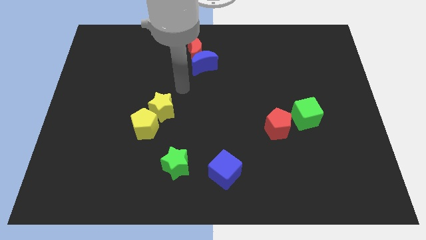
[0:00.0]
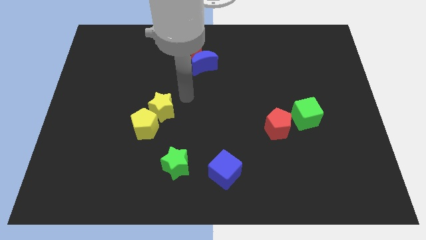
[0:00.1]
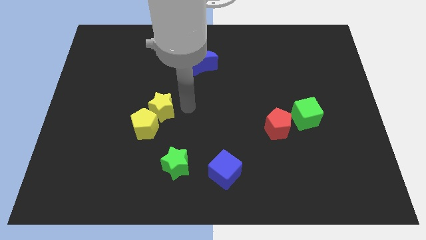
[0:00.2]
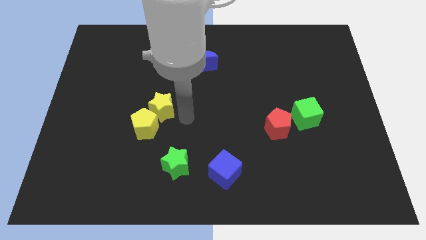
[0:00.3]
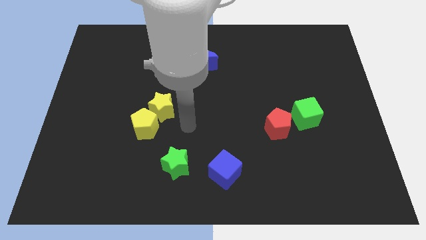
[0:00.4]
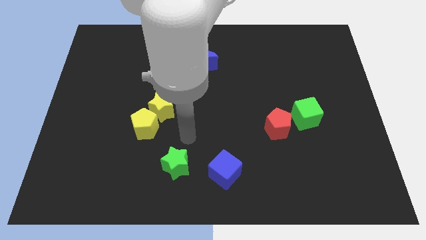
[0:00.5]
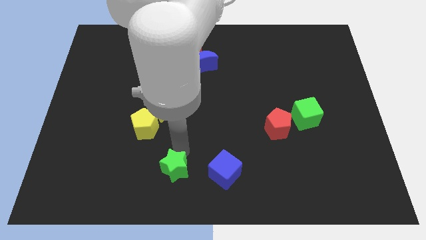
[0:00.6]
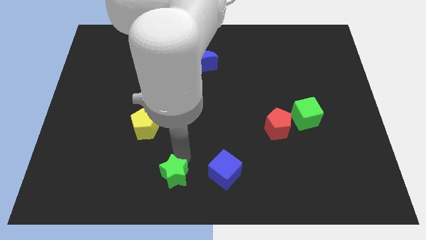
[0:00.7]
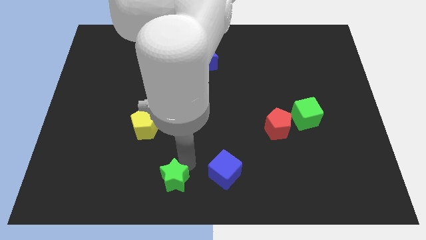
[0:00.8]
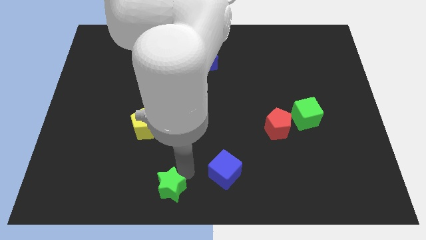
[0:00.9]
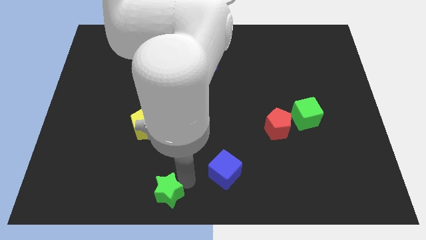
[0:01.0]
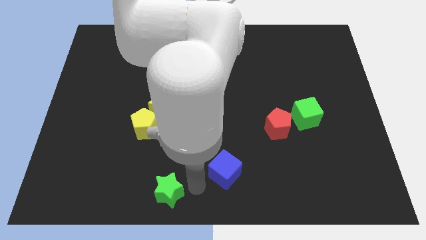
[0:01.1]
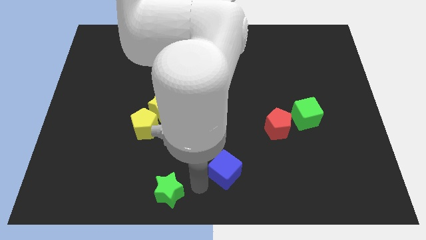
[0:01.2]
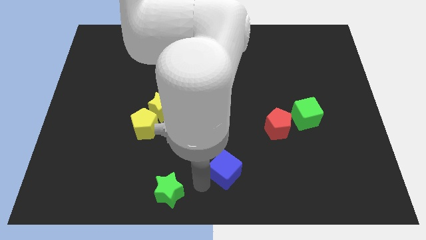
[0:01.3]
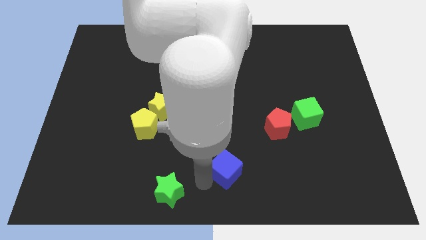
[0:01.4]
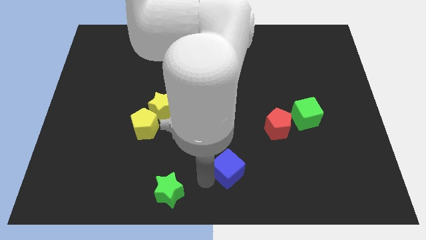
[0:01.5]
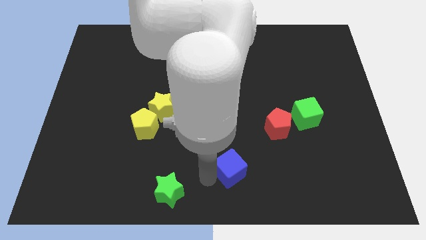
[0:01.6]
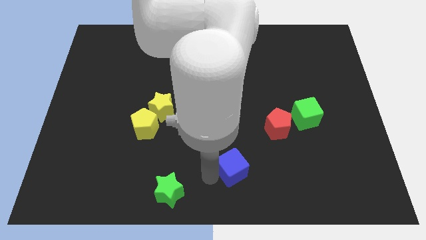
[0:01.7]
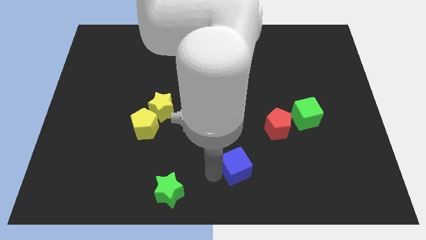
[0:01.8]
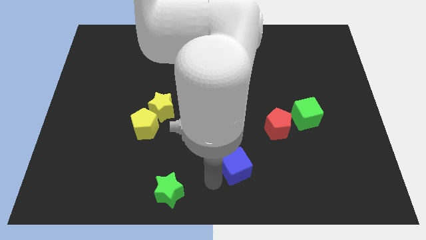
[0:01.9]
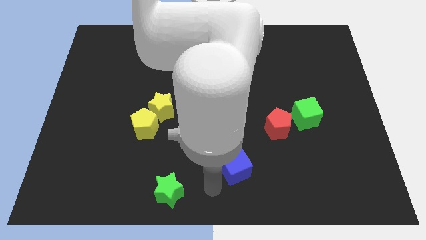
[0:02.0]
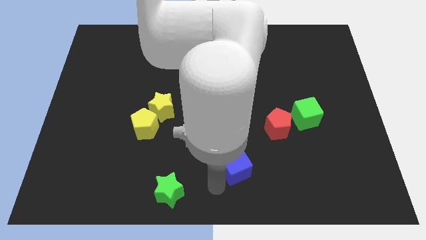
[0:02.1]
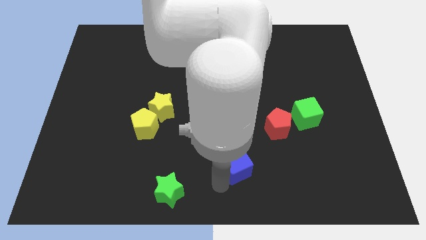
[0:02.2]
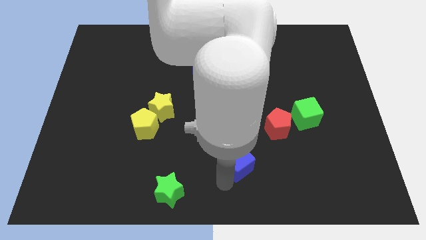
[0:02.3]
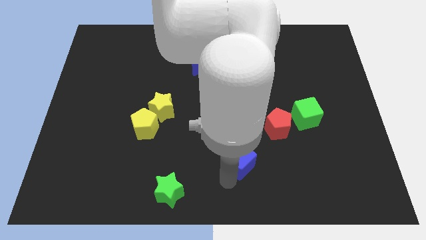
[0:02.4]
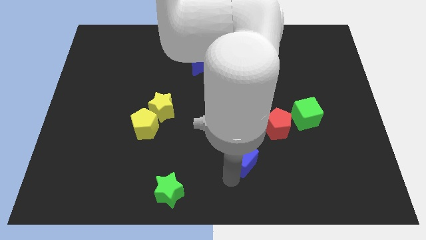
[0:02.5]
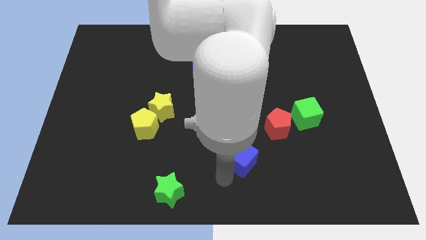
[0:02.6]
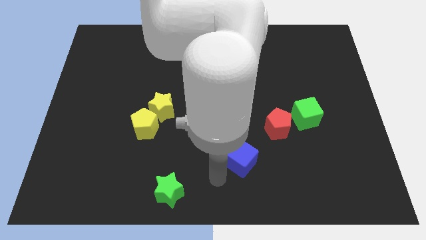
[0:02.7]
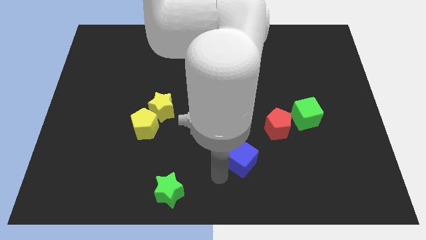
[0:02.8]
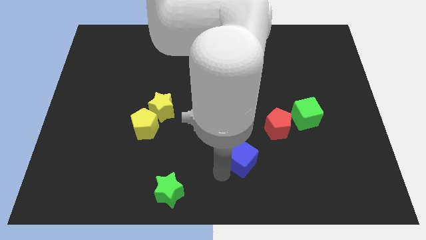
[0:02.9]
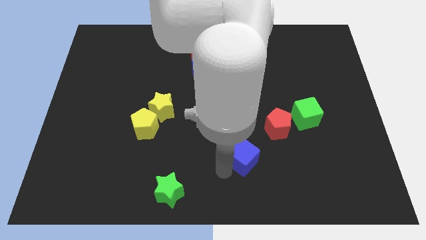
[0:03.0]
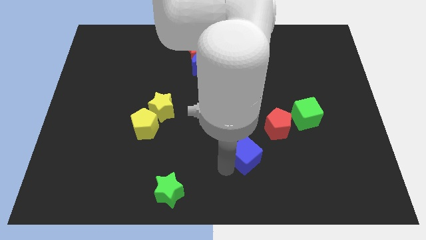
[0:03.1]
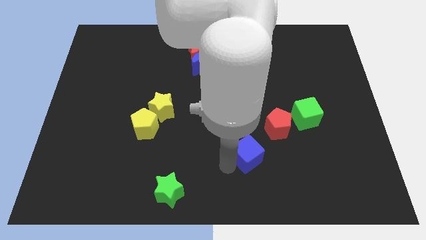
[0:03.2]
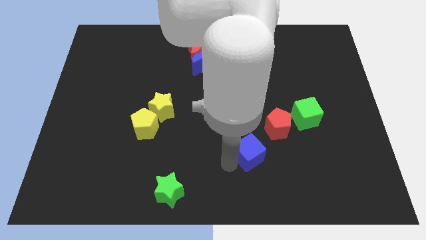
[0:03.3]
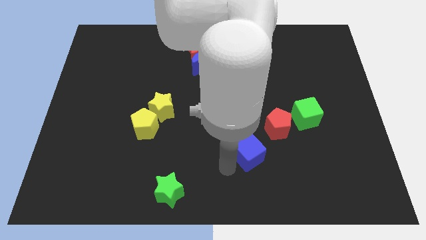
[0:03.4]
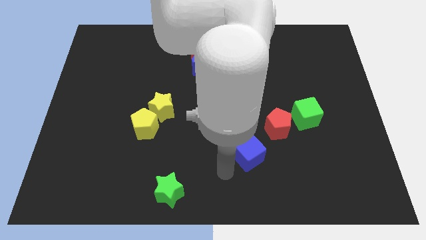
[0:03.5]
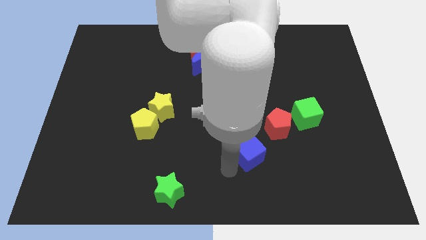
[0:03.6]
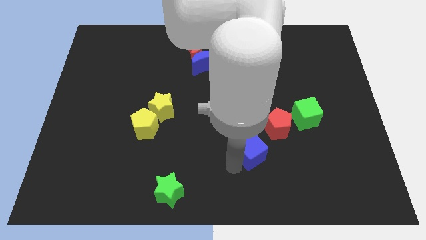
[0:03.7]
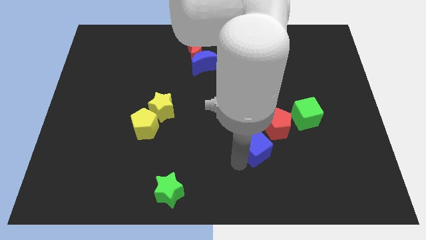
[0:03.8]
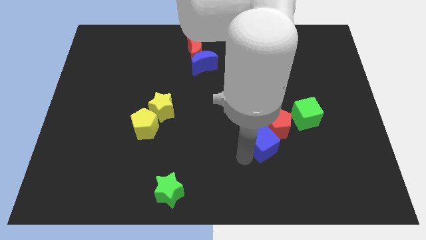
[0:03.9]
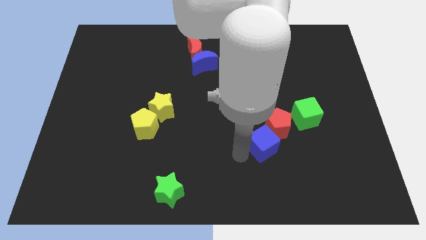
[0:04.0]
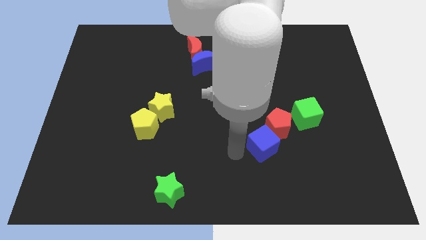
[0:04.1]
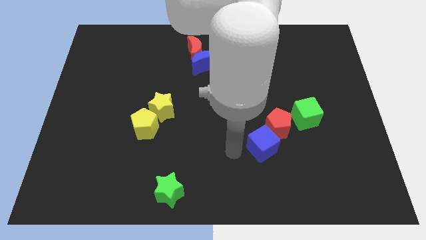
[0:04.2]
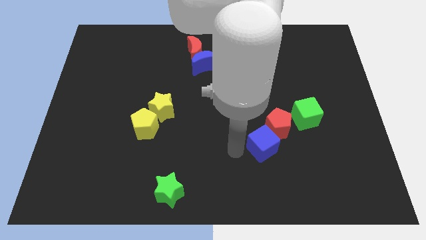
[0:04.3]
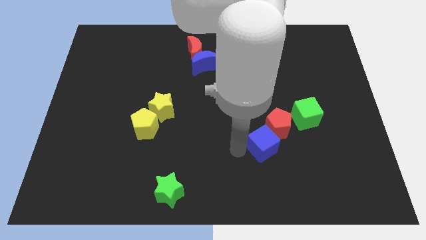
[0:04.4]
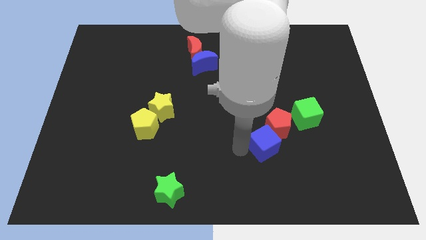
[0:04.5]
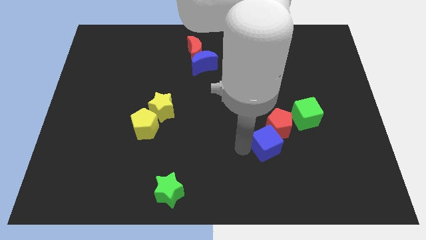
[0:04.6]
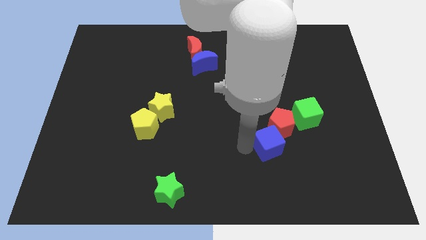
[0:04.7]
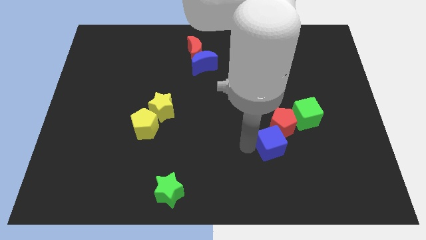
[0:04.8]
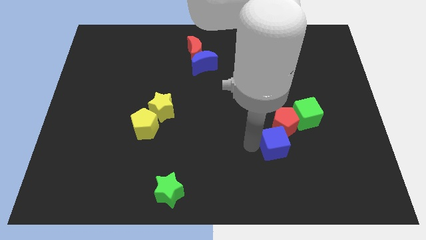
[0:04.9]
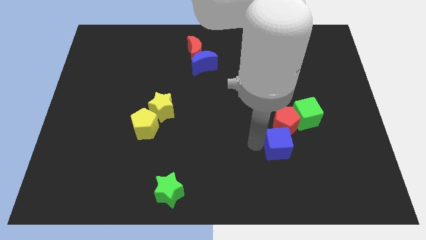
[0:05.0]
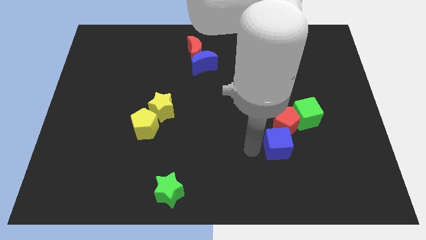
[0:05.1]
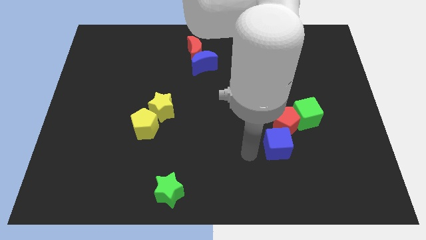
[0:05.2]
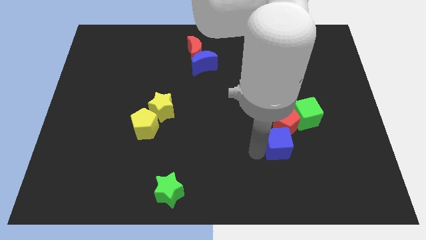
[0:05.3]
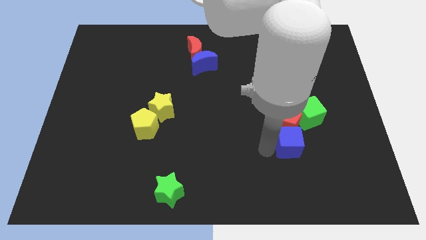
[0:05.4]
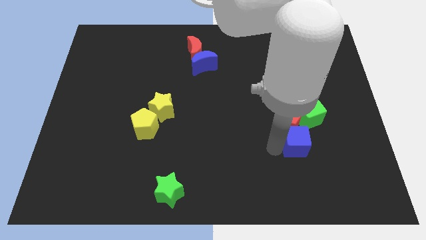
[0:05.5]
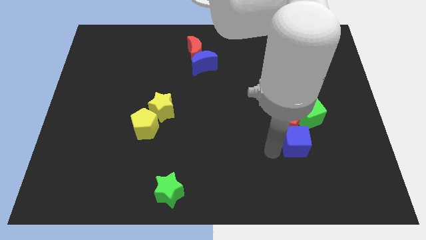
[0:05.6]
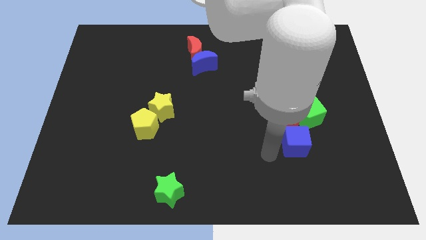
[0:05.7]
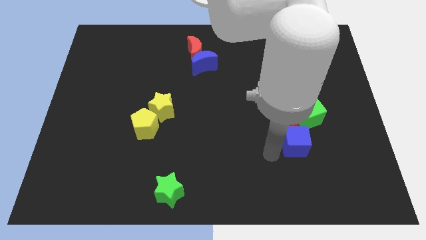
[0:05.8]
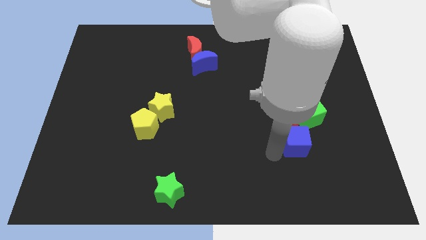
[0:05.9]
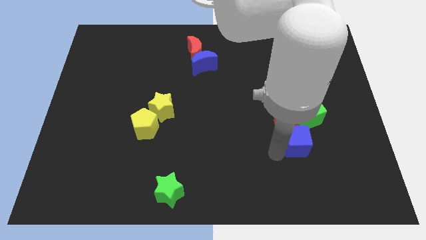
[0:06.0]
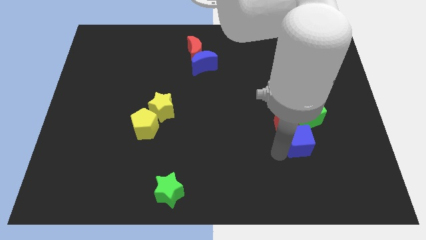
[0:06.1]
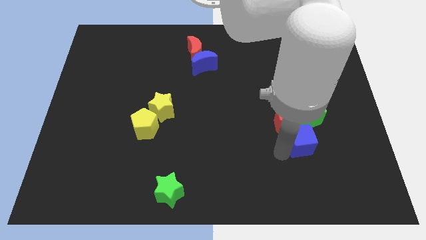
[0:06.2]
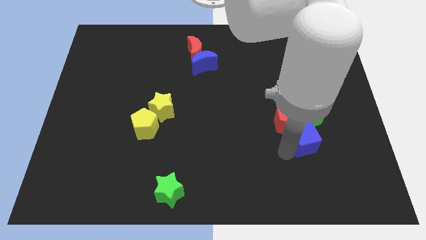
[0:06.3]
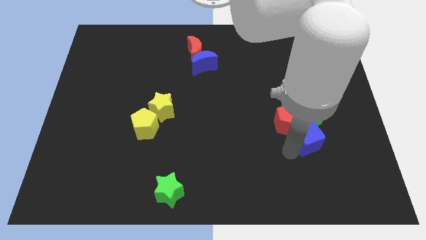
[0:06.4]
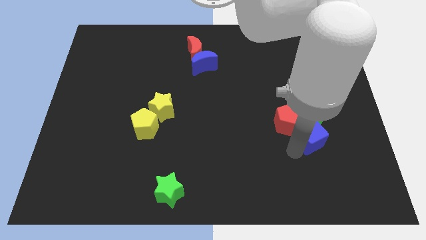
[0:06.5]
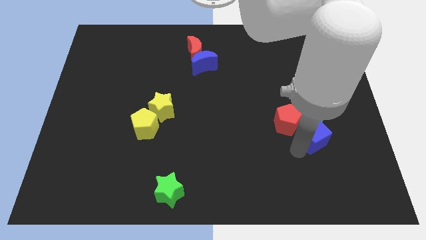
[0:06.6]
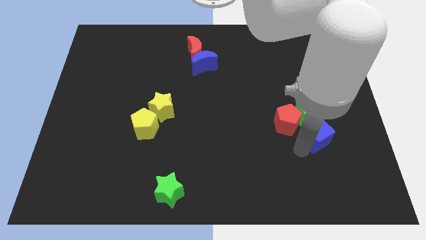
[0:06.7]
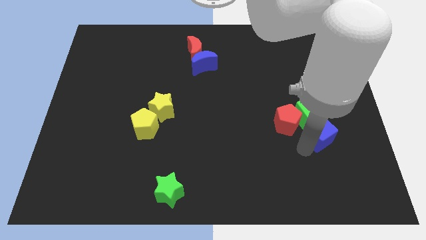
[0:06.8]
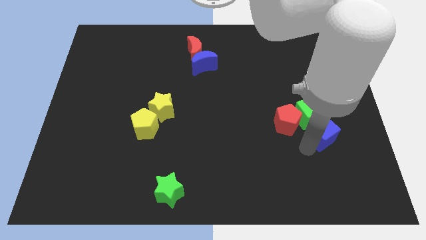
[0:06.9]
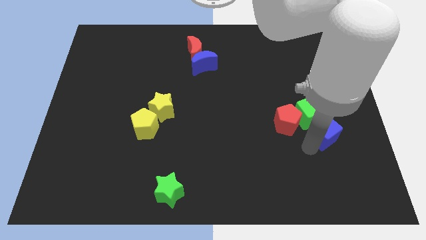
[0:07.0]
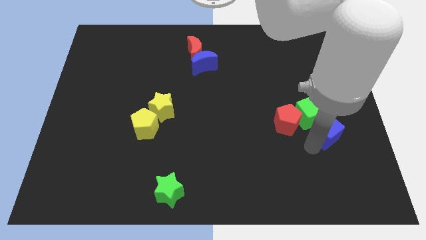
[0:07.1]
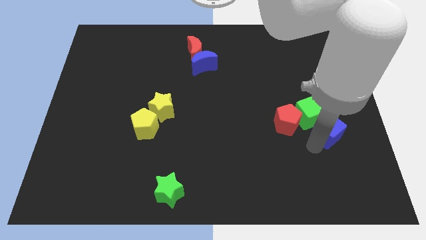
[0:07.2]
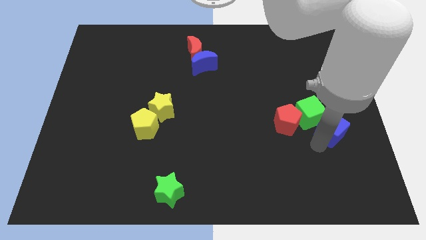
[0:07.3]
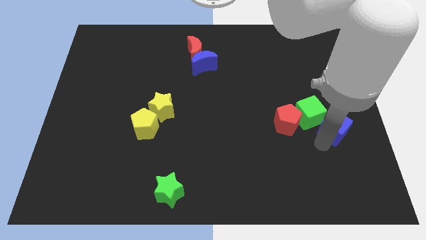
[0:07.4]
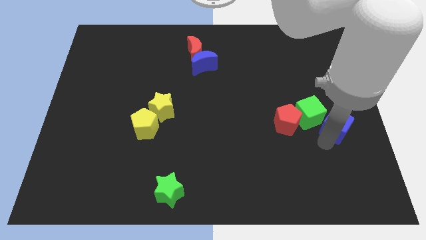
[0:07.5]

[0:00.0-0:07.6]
slide the blue cube to the right side
